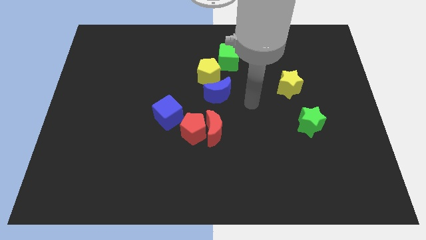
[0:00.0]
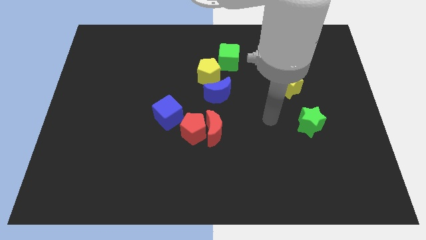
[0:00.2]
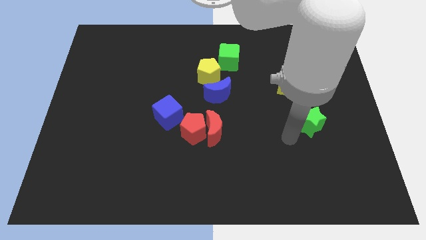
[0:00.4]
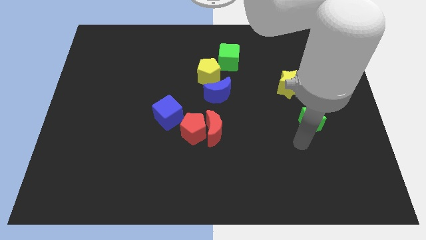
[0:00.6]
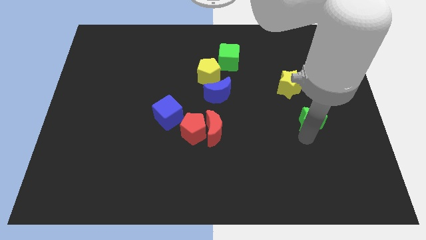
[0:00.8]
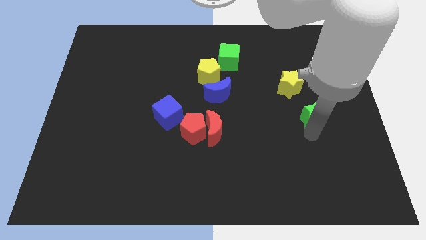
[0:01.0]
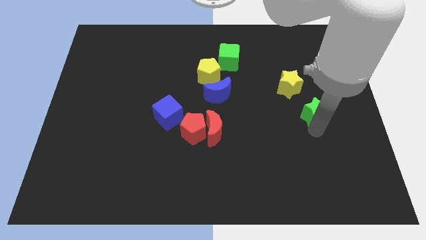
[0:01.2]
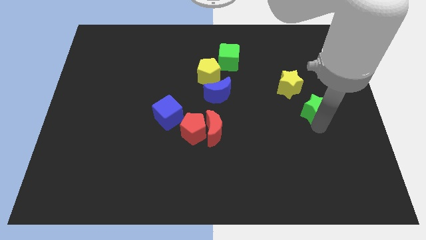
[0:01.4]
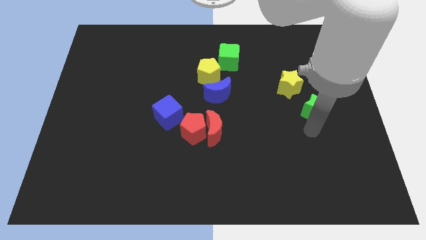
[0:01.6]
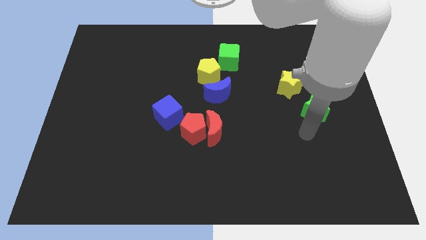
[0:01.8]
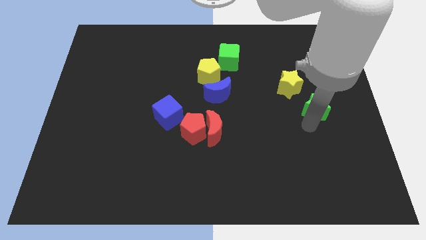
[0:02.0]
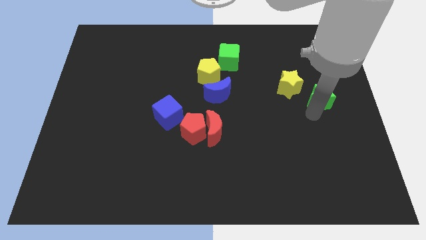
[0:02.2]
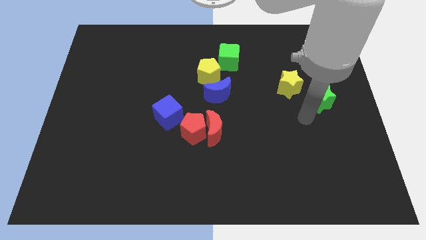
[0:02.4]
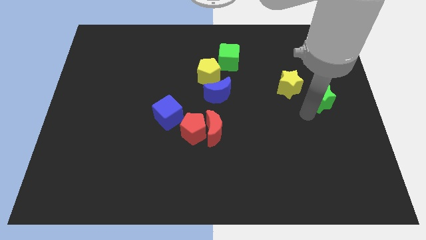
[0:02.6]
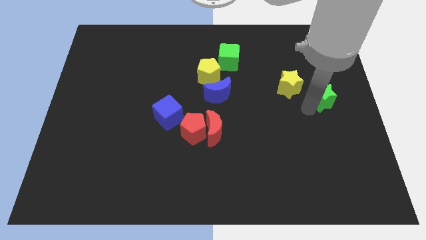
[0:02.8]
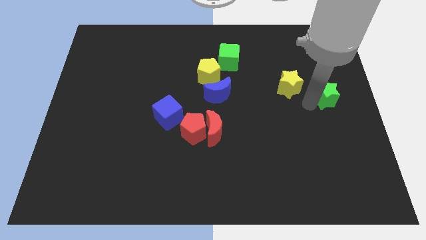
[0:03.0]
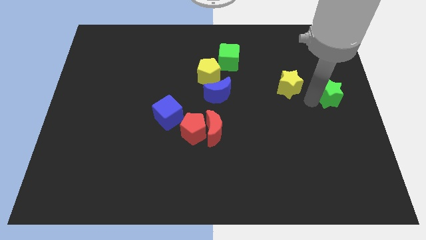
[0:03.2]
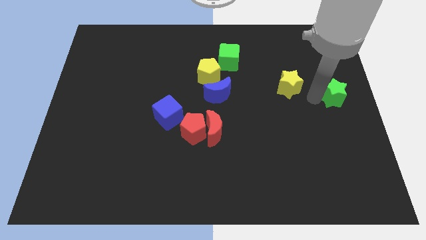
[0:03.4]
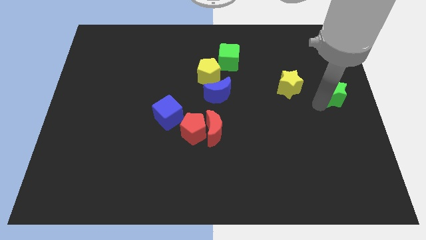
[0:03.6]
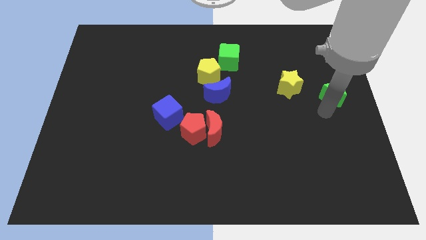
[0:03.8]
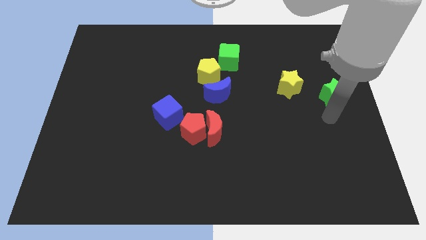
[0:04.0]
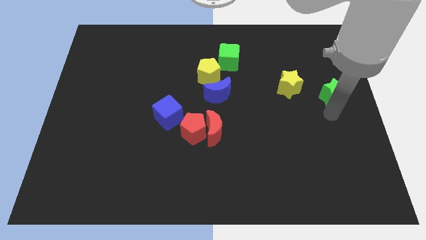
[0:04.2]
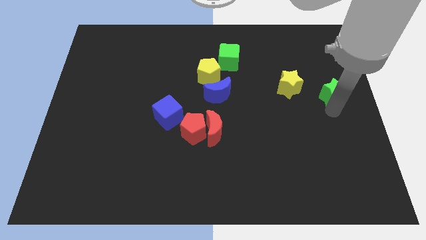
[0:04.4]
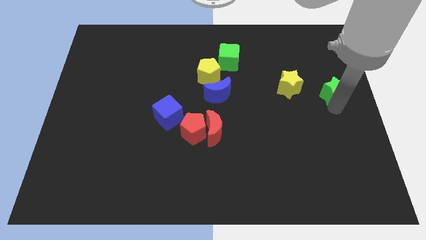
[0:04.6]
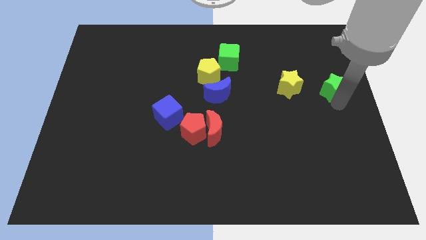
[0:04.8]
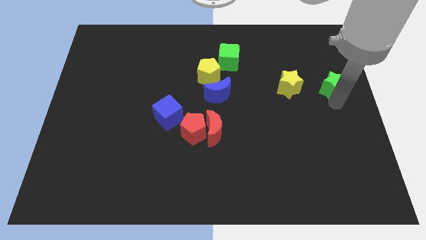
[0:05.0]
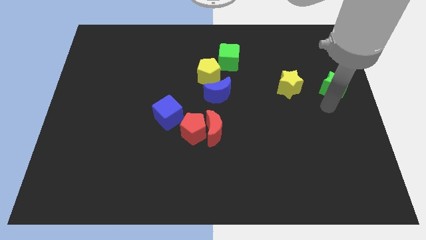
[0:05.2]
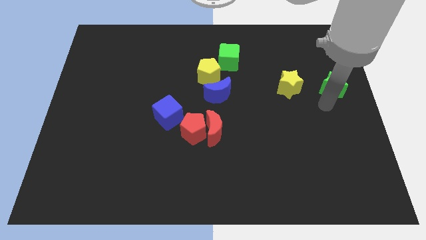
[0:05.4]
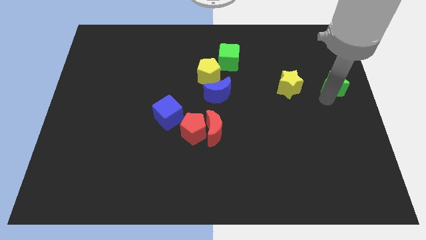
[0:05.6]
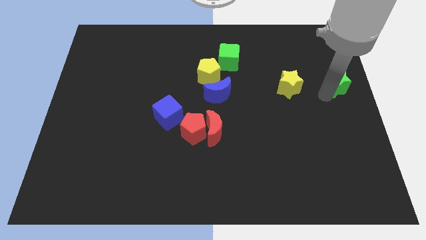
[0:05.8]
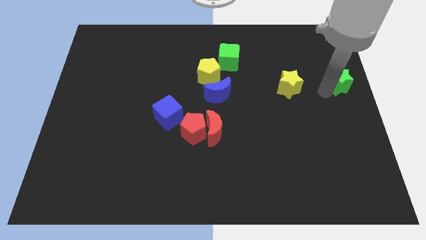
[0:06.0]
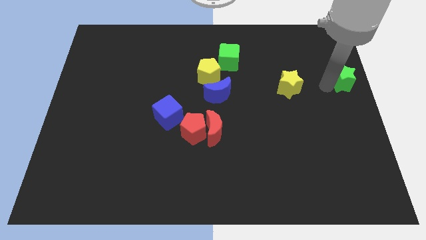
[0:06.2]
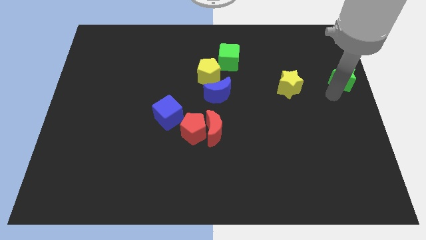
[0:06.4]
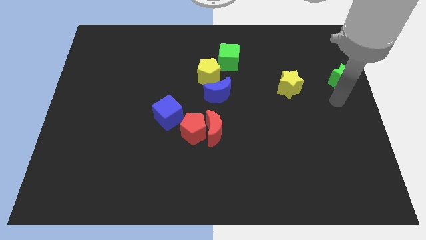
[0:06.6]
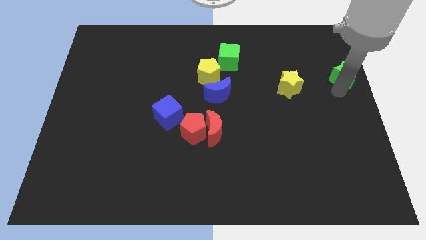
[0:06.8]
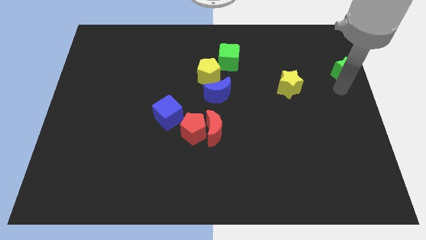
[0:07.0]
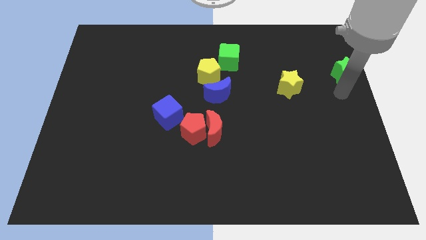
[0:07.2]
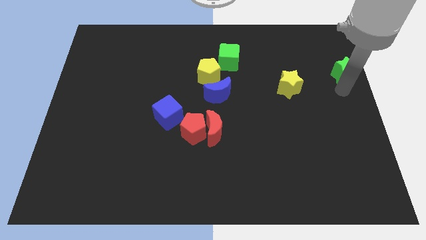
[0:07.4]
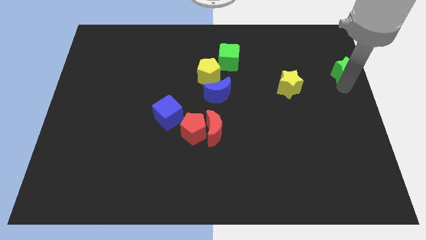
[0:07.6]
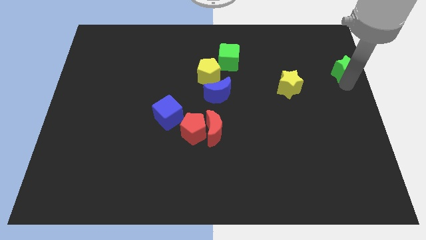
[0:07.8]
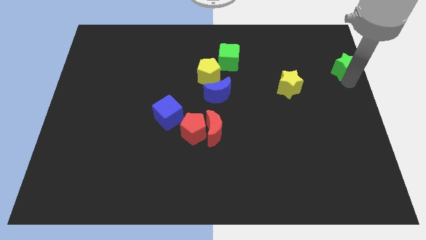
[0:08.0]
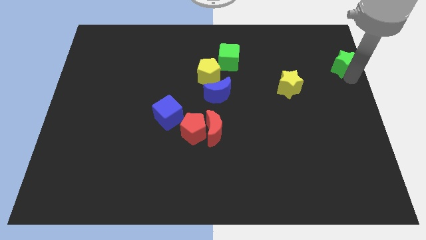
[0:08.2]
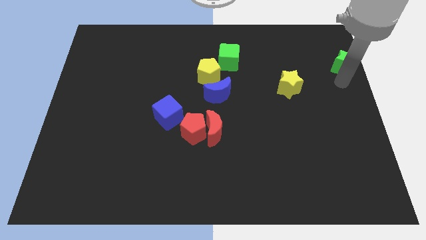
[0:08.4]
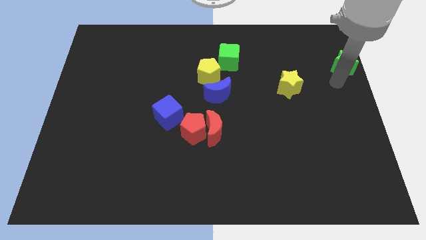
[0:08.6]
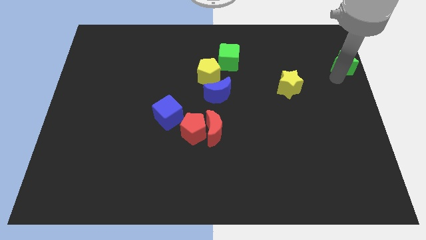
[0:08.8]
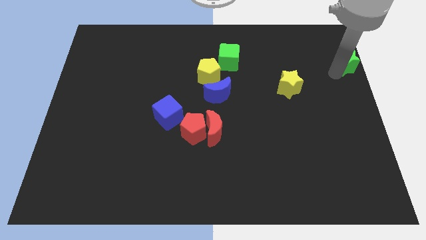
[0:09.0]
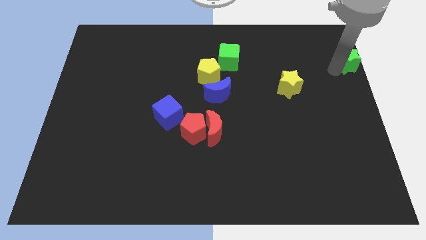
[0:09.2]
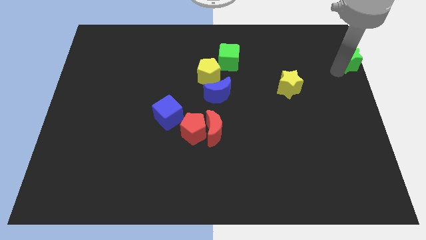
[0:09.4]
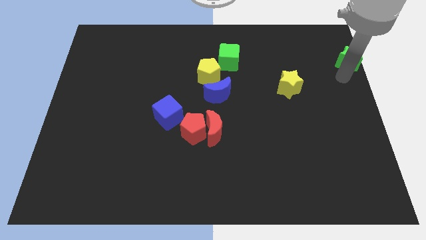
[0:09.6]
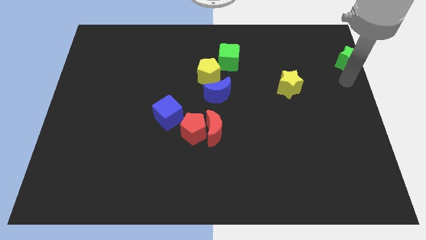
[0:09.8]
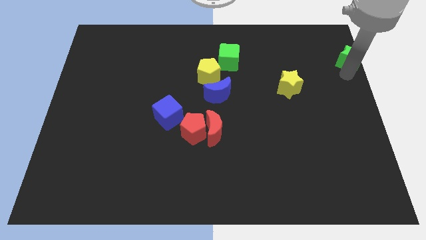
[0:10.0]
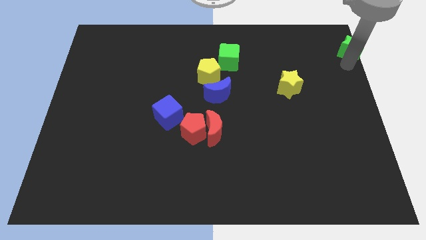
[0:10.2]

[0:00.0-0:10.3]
slide the green star to the upper right corner

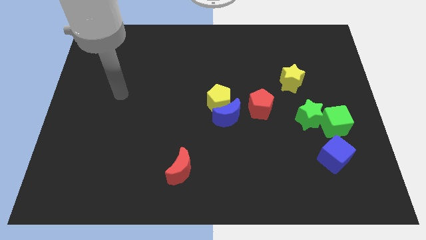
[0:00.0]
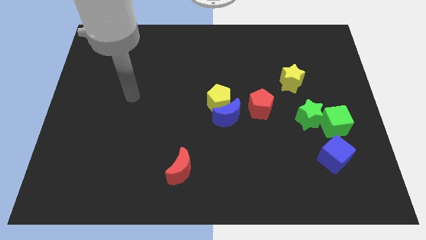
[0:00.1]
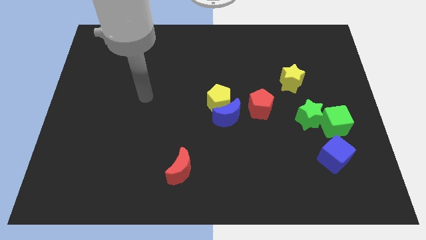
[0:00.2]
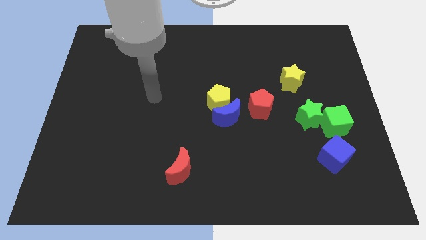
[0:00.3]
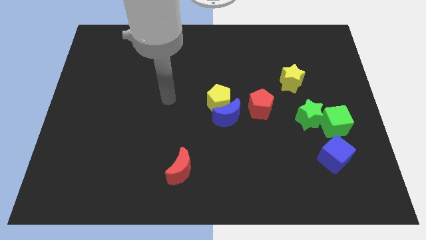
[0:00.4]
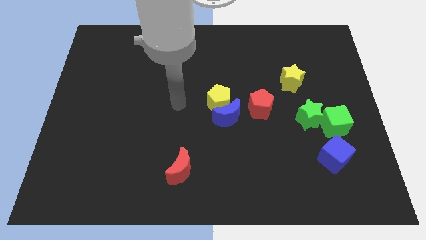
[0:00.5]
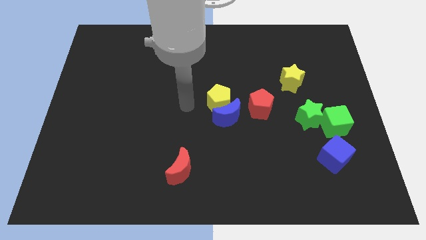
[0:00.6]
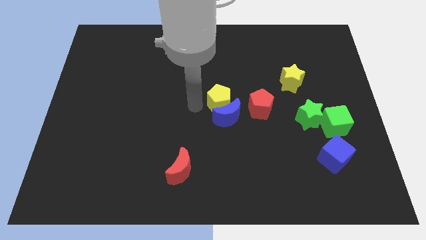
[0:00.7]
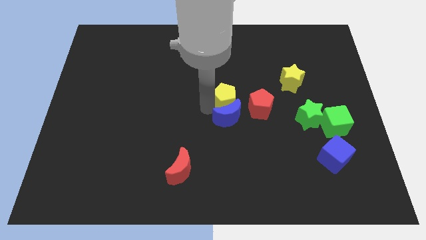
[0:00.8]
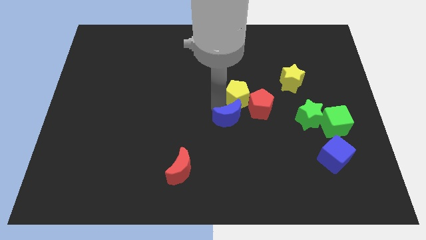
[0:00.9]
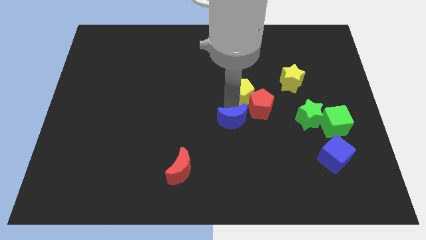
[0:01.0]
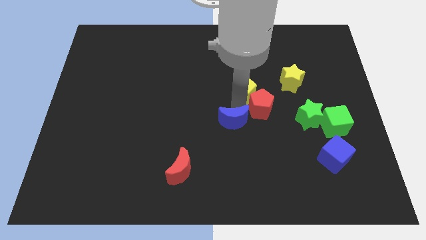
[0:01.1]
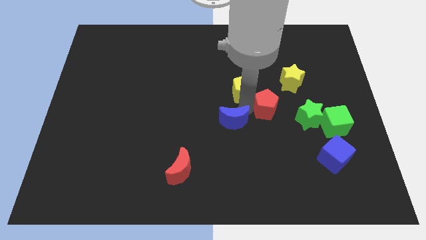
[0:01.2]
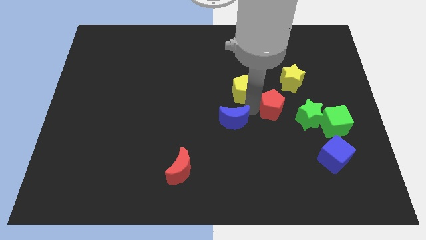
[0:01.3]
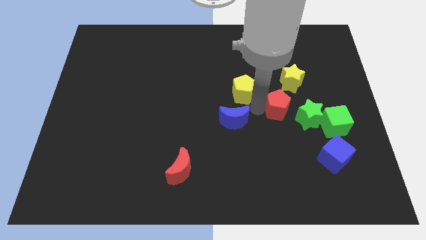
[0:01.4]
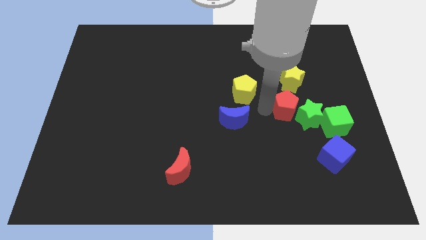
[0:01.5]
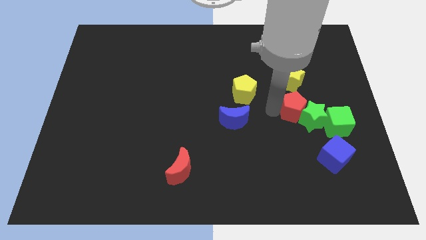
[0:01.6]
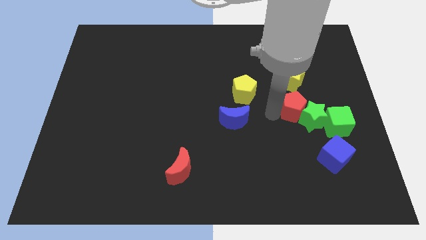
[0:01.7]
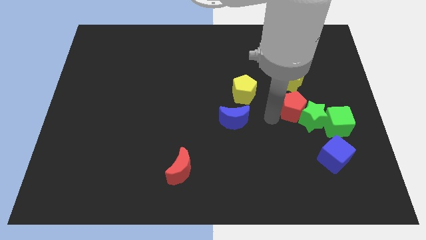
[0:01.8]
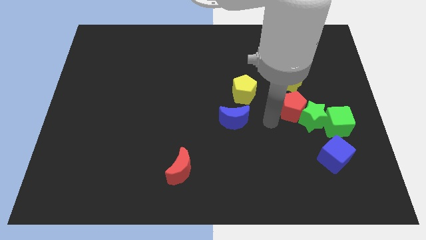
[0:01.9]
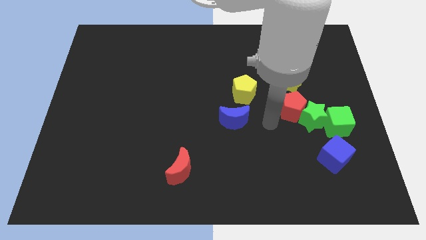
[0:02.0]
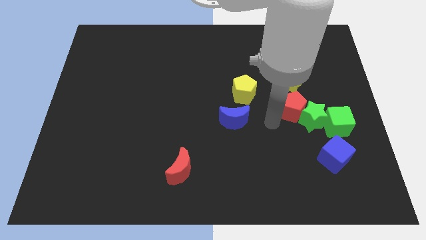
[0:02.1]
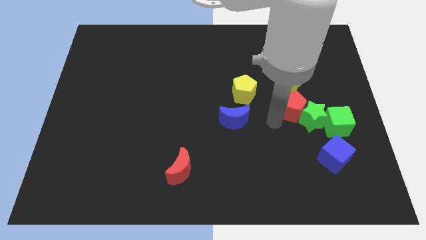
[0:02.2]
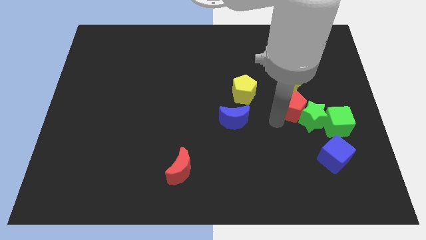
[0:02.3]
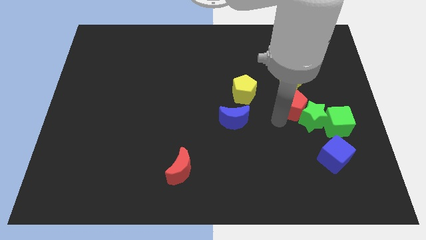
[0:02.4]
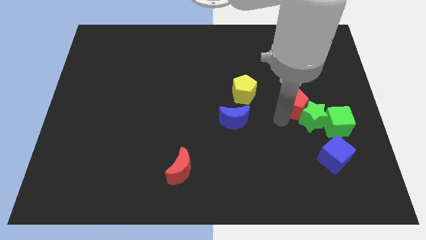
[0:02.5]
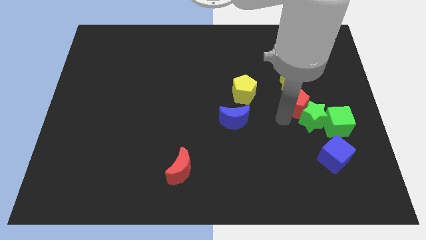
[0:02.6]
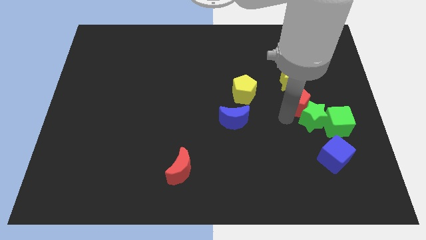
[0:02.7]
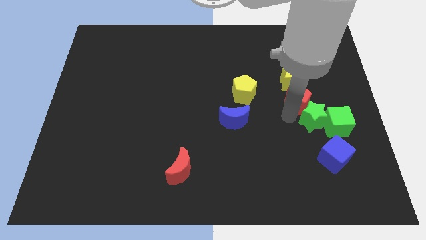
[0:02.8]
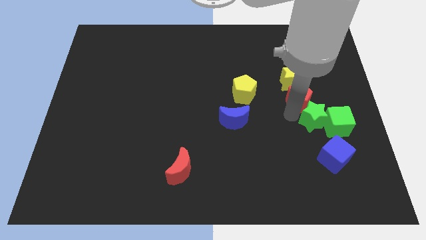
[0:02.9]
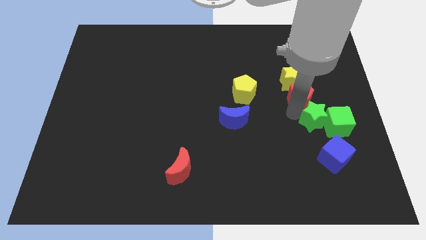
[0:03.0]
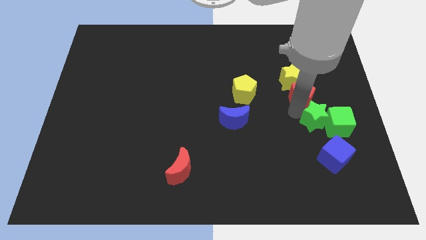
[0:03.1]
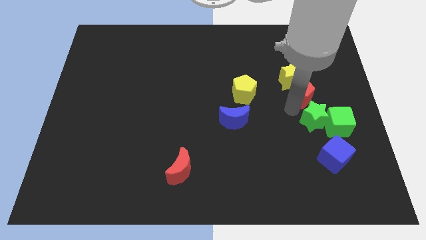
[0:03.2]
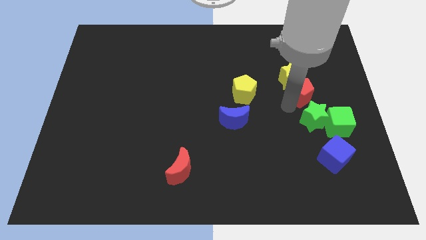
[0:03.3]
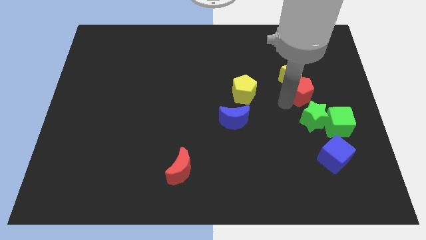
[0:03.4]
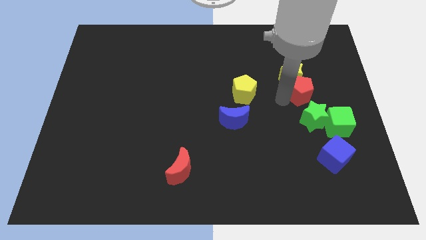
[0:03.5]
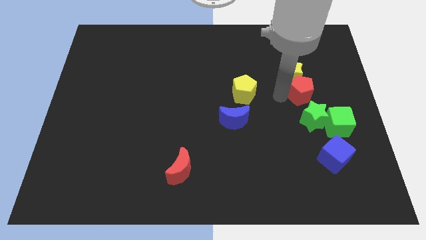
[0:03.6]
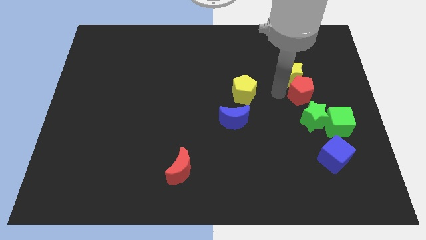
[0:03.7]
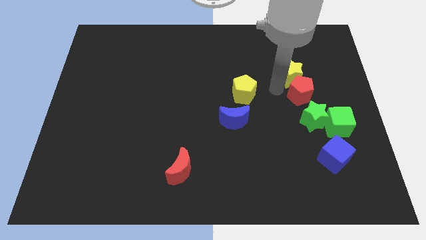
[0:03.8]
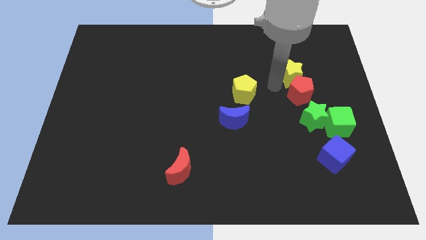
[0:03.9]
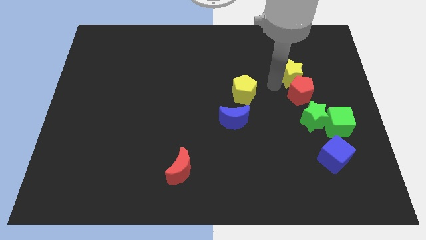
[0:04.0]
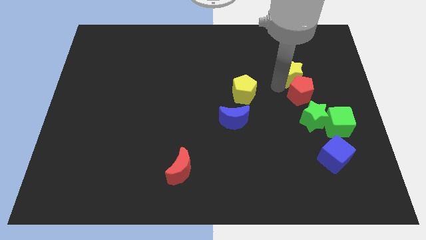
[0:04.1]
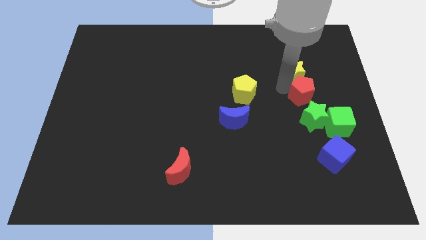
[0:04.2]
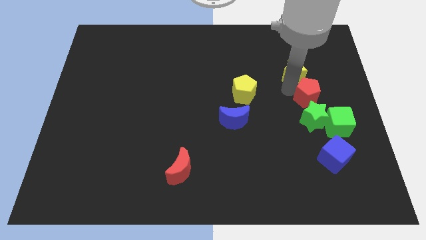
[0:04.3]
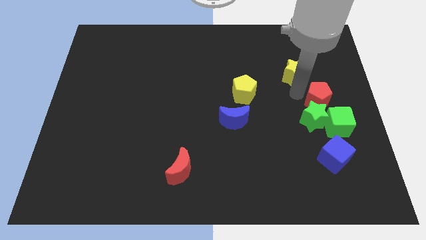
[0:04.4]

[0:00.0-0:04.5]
slide the red pentagon to the center right
